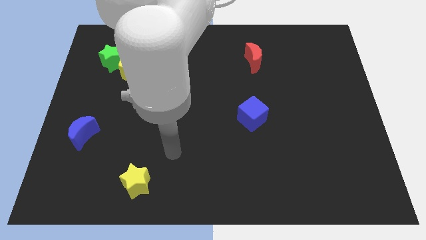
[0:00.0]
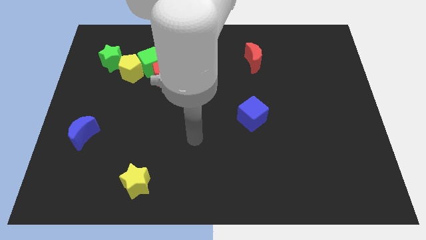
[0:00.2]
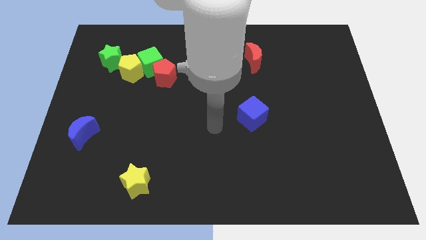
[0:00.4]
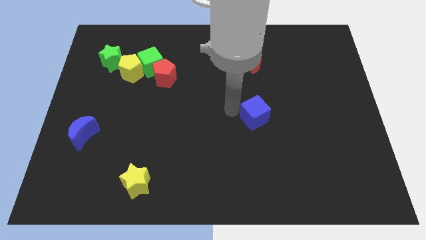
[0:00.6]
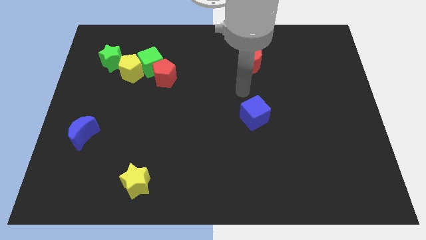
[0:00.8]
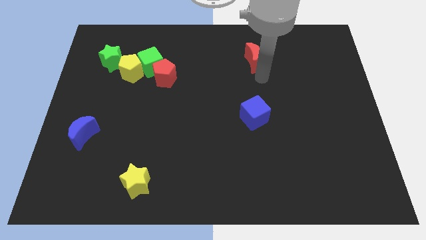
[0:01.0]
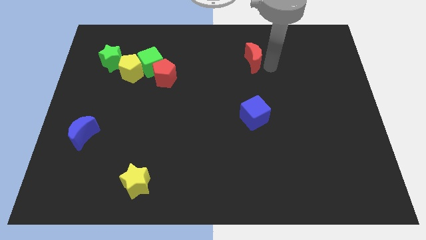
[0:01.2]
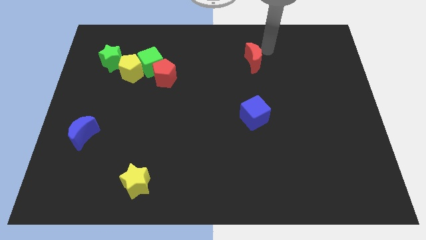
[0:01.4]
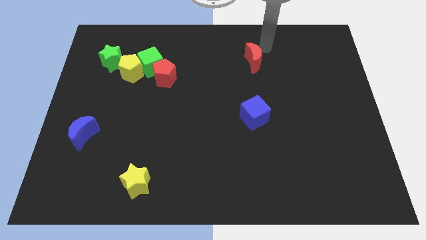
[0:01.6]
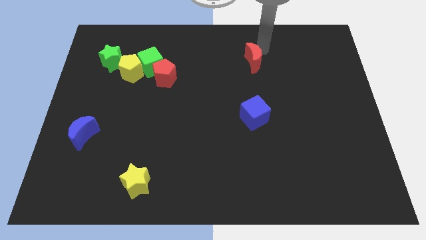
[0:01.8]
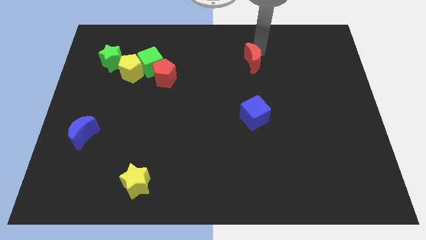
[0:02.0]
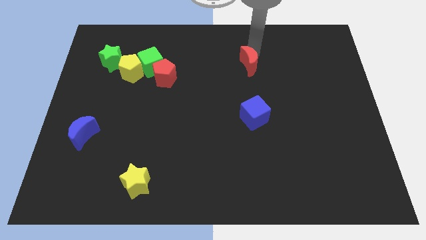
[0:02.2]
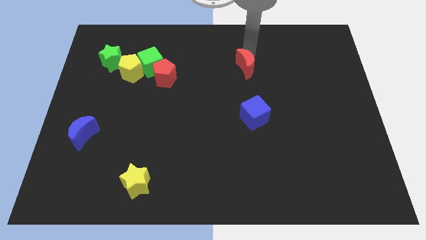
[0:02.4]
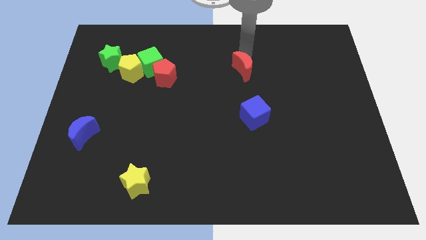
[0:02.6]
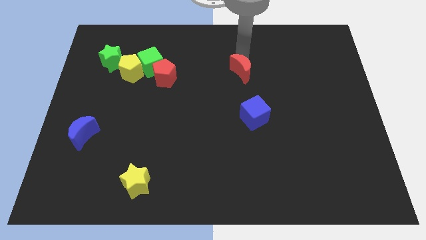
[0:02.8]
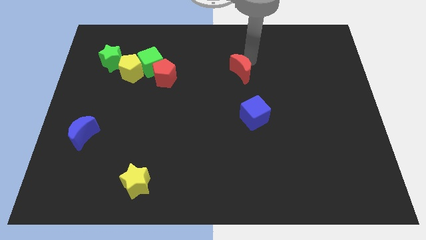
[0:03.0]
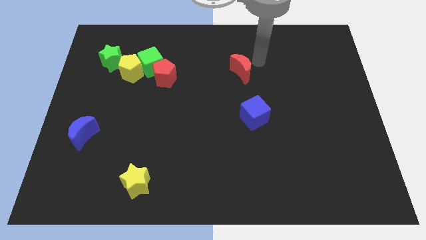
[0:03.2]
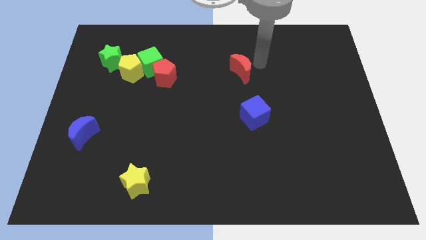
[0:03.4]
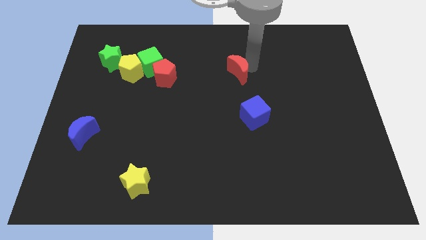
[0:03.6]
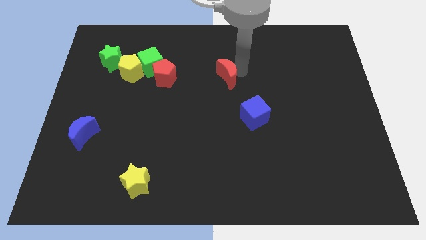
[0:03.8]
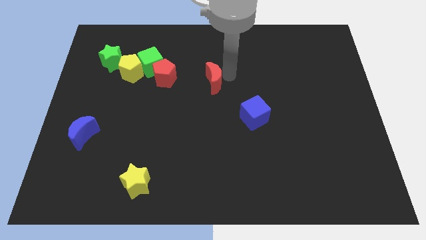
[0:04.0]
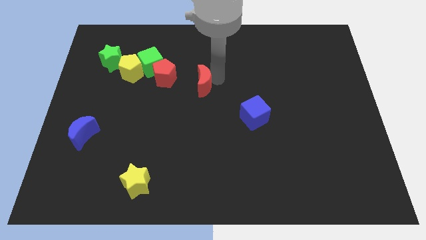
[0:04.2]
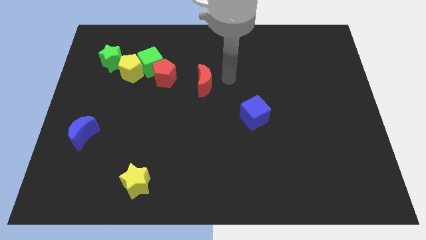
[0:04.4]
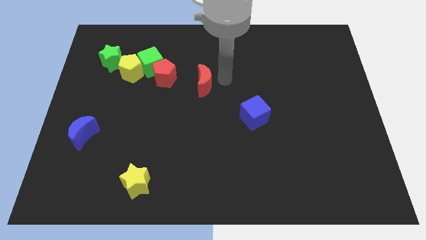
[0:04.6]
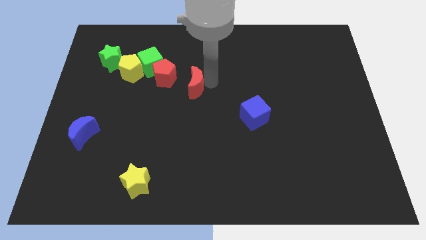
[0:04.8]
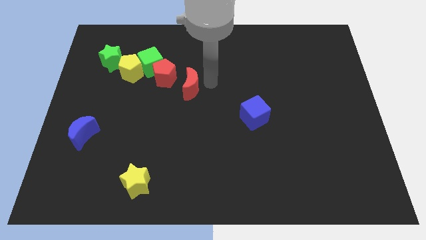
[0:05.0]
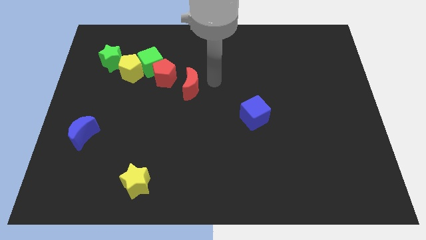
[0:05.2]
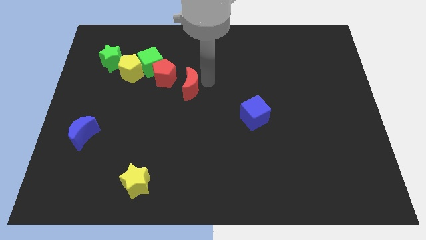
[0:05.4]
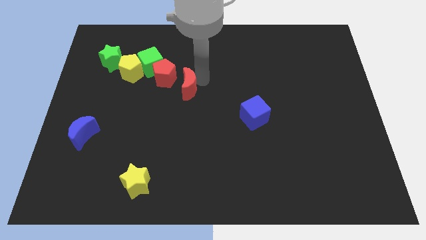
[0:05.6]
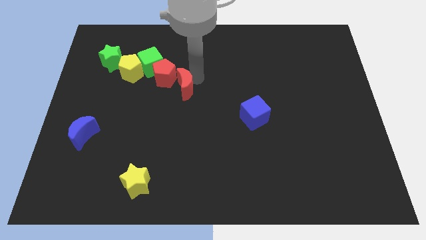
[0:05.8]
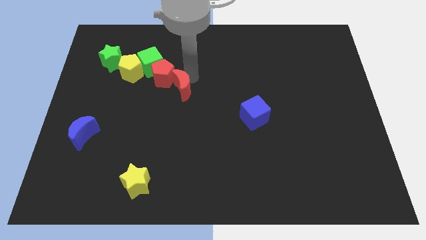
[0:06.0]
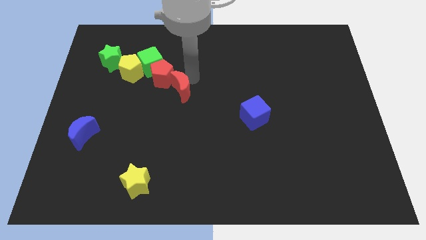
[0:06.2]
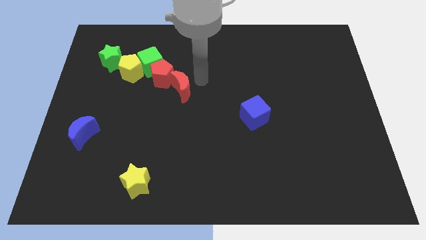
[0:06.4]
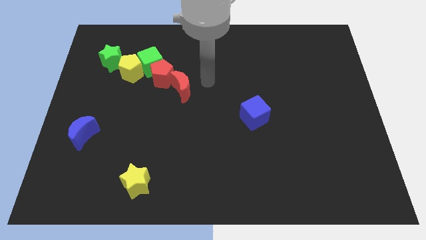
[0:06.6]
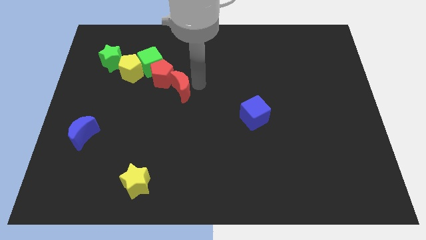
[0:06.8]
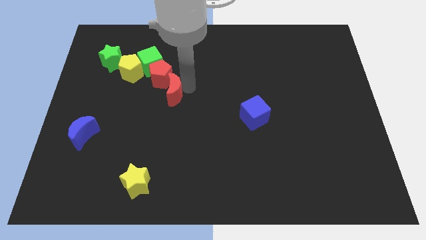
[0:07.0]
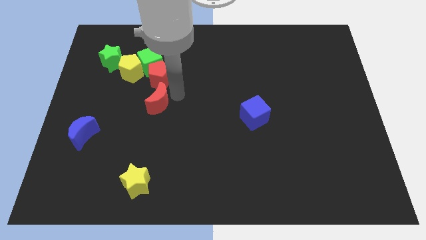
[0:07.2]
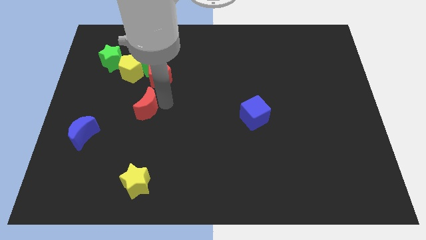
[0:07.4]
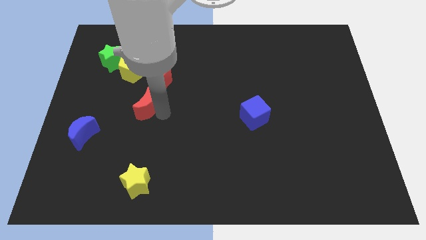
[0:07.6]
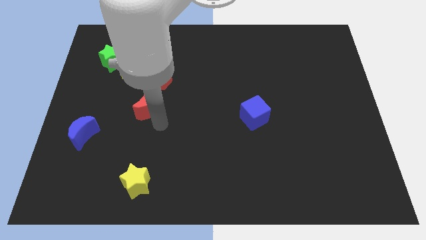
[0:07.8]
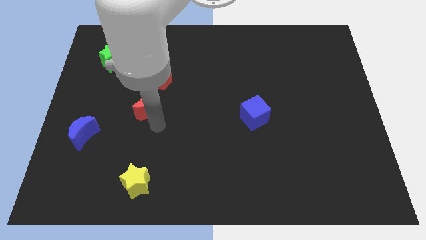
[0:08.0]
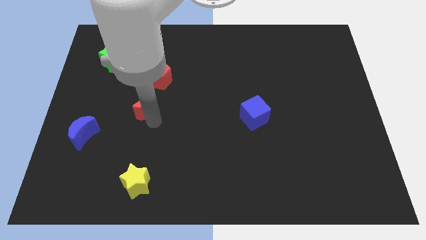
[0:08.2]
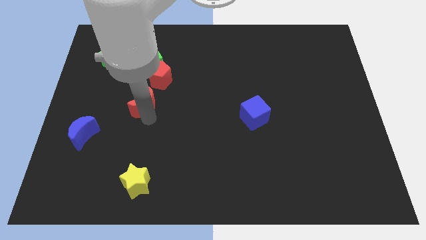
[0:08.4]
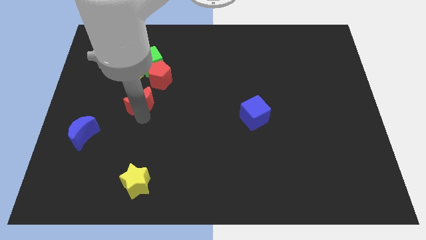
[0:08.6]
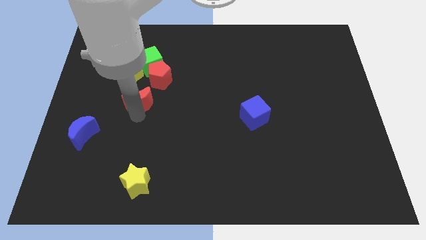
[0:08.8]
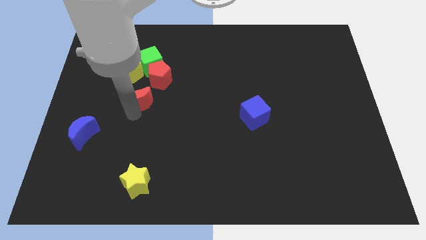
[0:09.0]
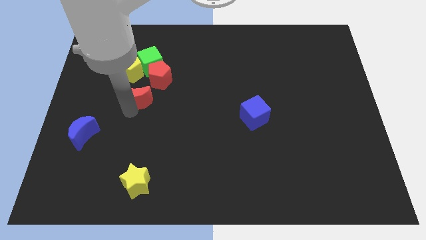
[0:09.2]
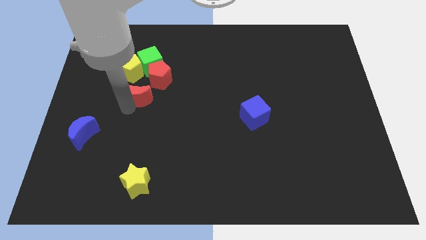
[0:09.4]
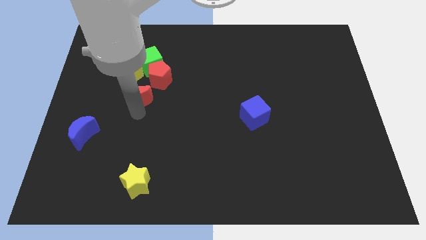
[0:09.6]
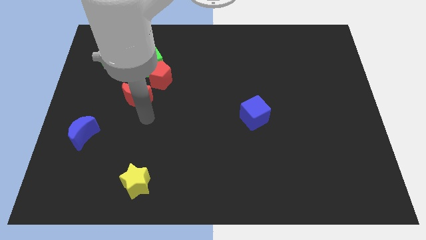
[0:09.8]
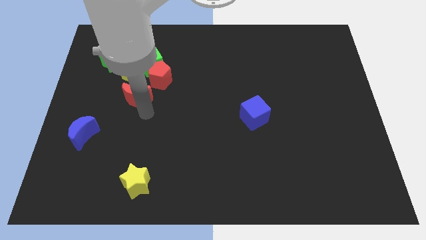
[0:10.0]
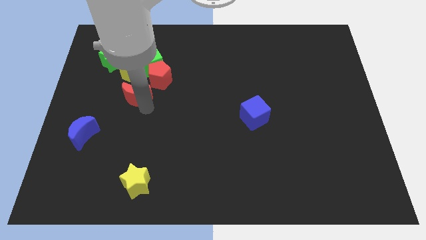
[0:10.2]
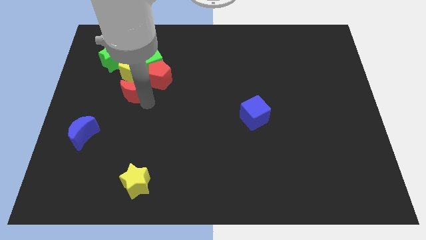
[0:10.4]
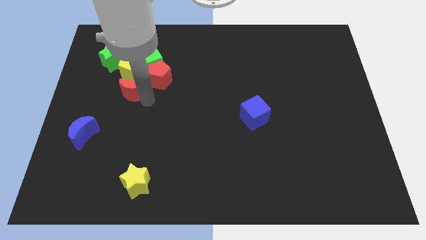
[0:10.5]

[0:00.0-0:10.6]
slide the red moon to the bottom left of the green cube

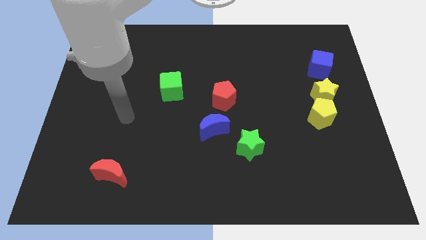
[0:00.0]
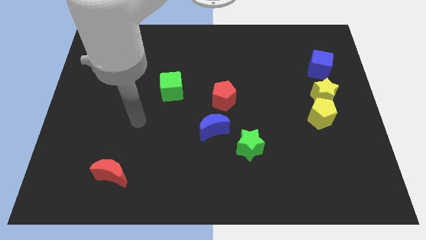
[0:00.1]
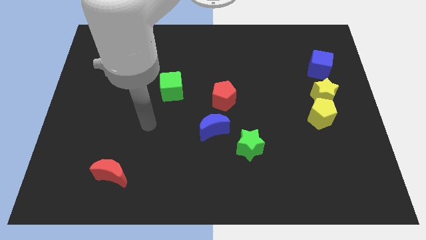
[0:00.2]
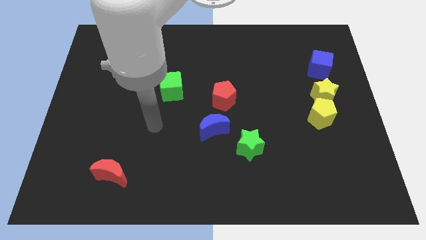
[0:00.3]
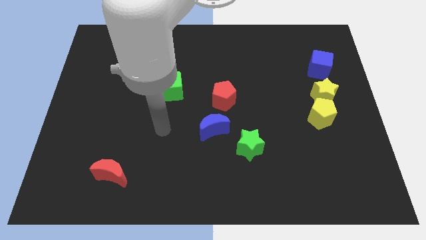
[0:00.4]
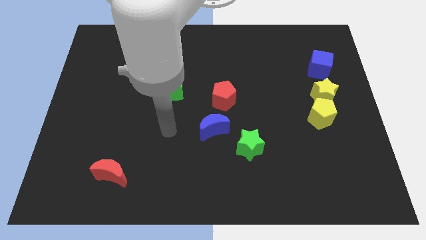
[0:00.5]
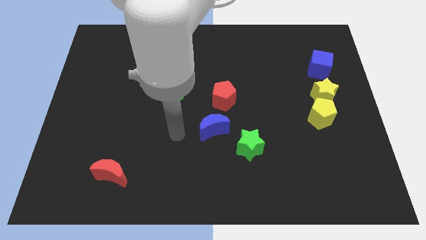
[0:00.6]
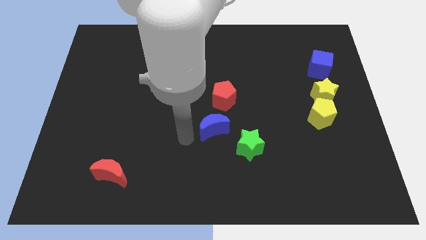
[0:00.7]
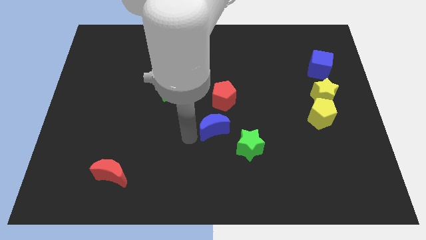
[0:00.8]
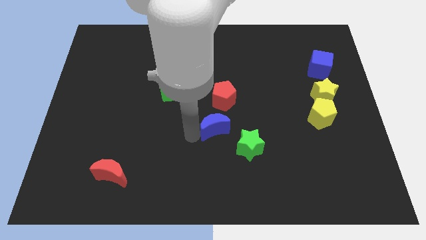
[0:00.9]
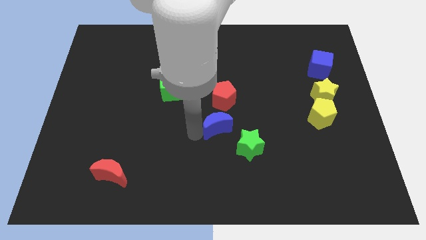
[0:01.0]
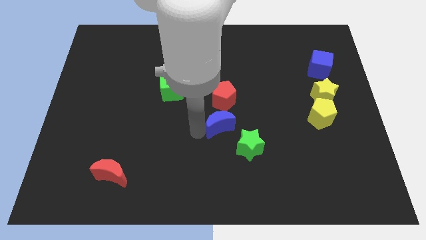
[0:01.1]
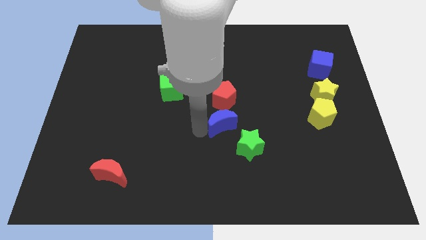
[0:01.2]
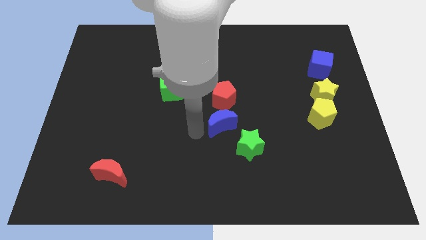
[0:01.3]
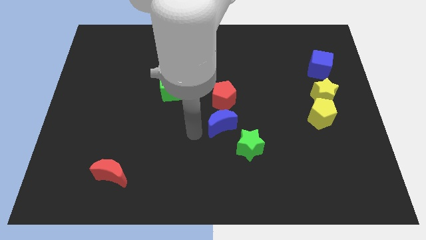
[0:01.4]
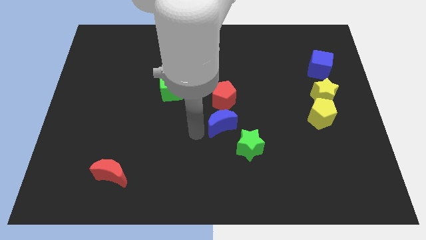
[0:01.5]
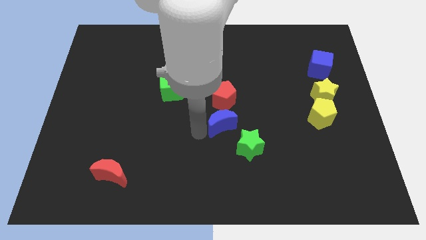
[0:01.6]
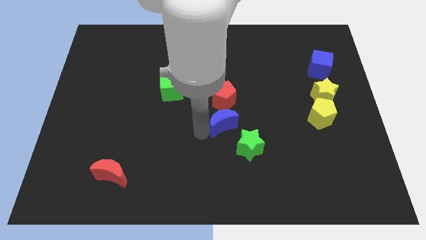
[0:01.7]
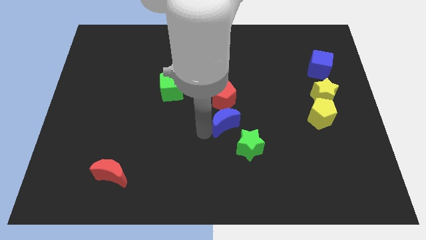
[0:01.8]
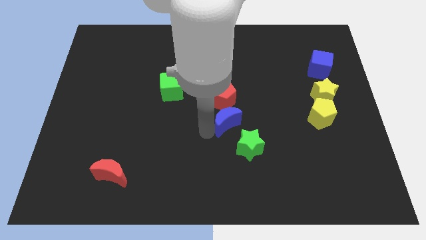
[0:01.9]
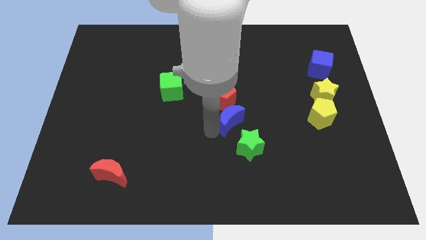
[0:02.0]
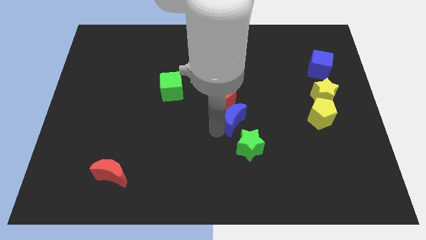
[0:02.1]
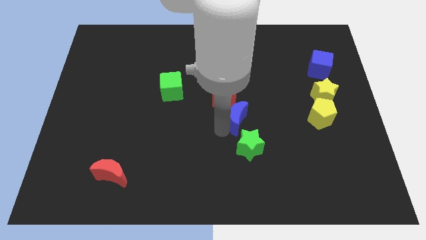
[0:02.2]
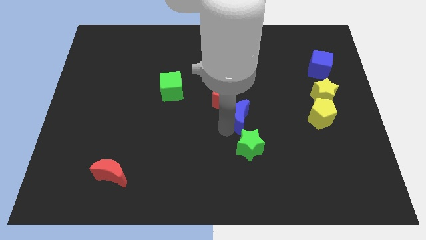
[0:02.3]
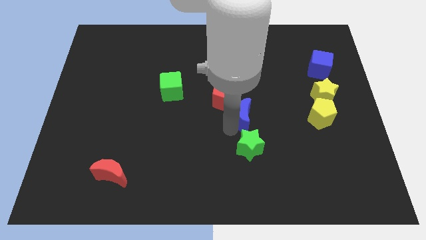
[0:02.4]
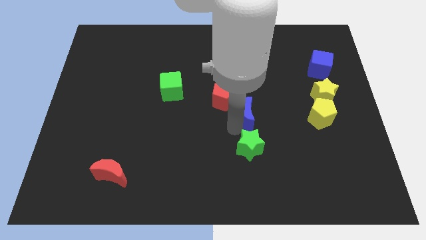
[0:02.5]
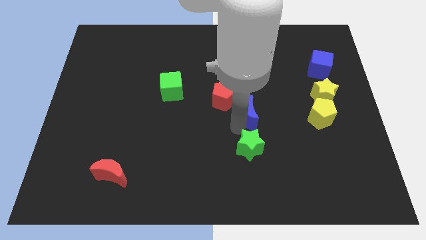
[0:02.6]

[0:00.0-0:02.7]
move the blue moon to the right of the red pentagon
